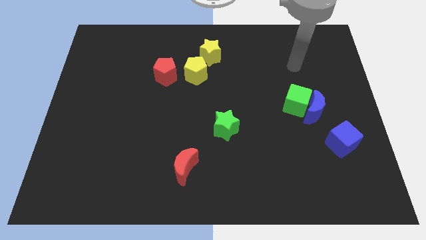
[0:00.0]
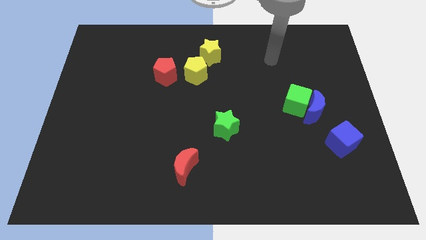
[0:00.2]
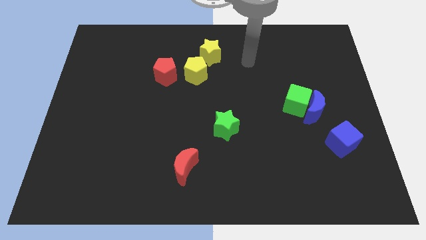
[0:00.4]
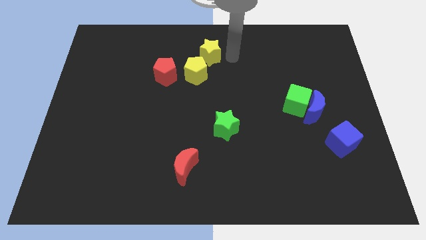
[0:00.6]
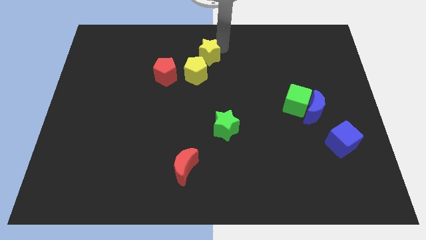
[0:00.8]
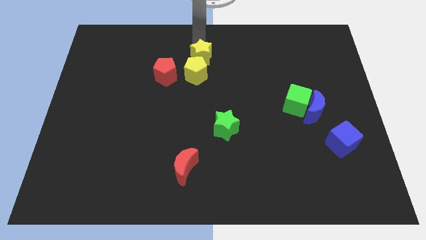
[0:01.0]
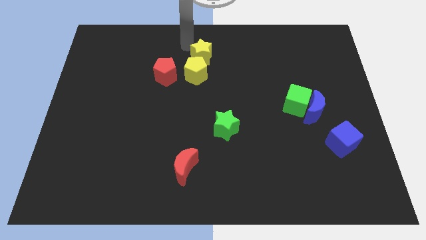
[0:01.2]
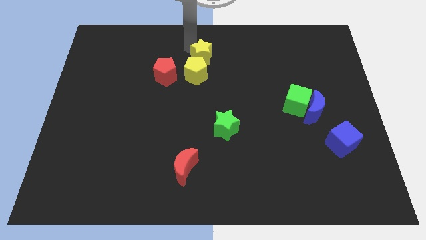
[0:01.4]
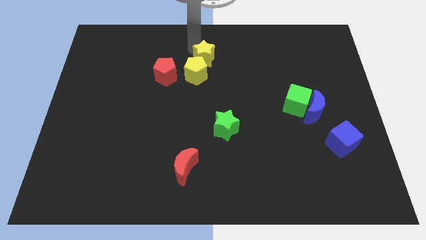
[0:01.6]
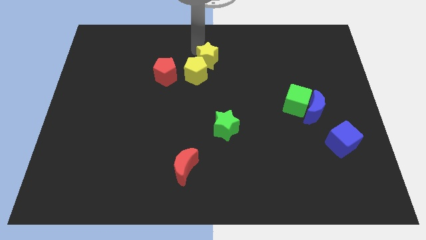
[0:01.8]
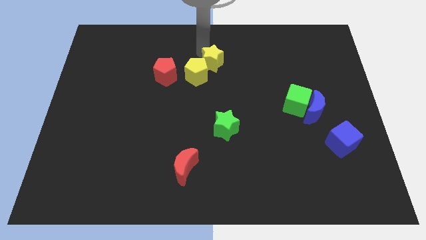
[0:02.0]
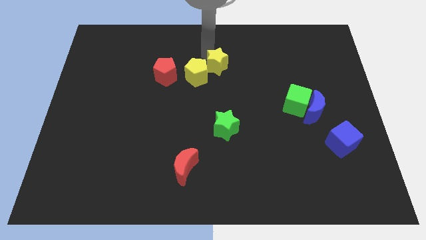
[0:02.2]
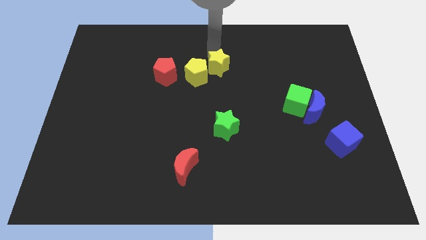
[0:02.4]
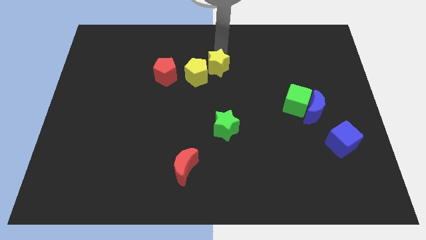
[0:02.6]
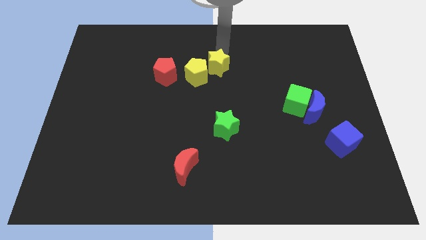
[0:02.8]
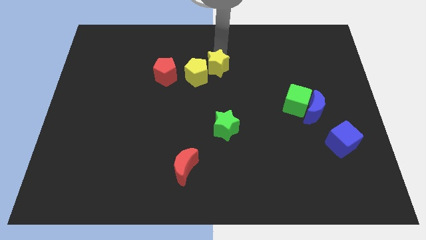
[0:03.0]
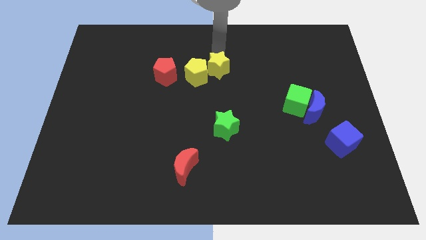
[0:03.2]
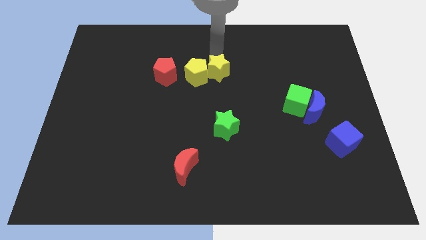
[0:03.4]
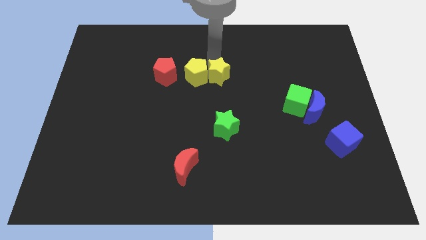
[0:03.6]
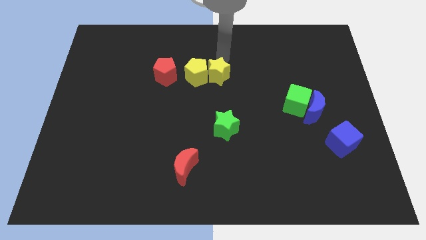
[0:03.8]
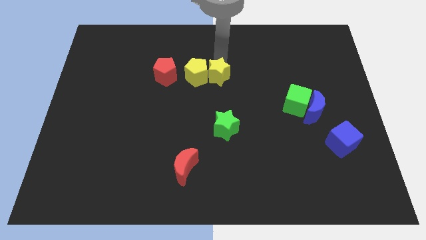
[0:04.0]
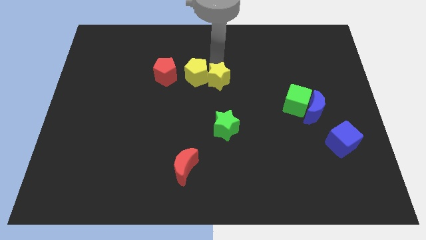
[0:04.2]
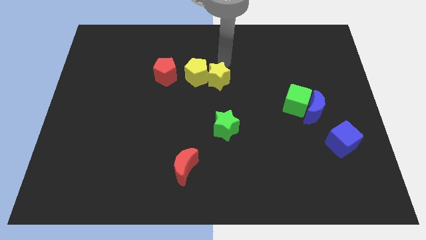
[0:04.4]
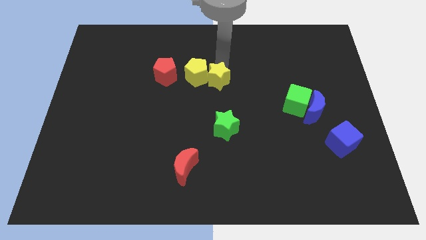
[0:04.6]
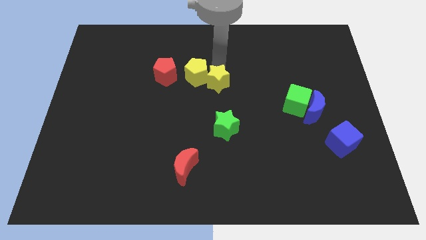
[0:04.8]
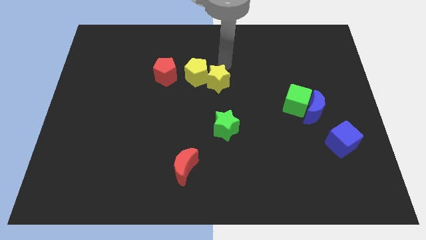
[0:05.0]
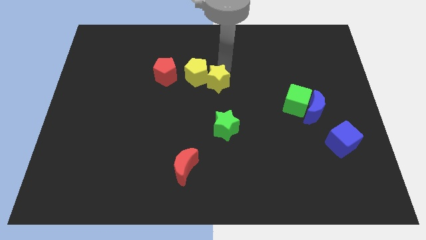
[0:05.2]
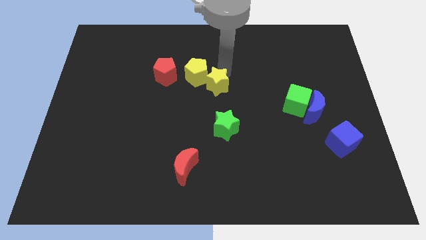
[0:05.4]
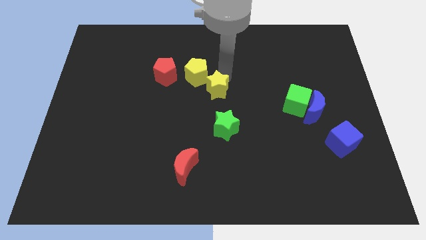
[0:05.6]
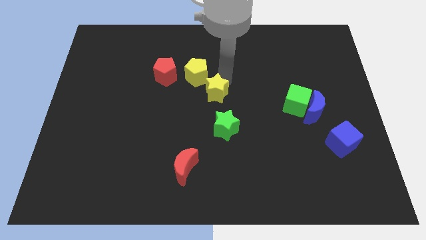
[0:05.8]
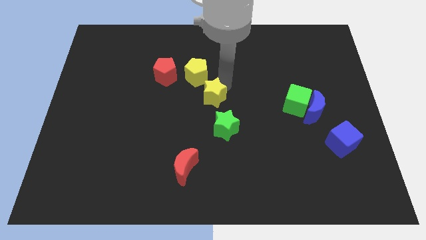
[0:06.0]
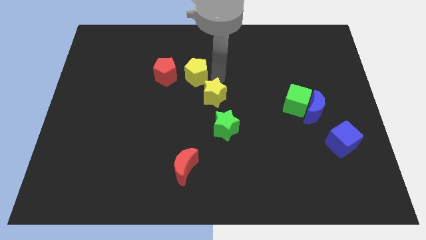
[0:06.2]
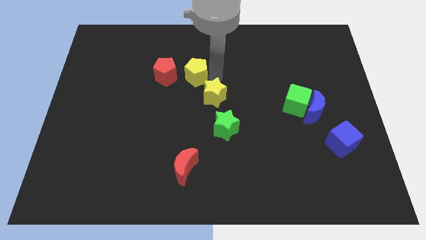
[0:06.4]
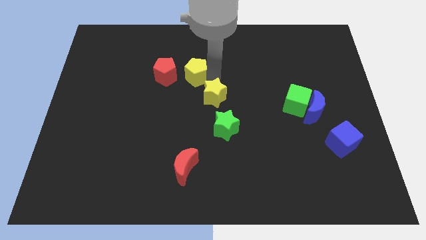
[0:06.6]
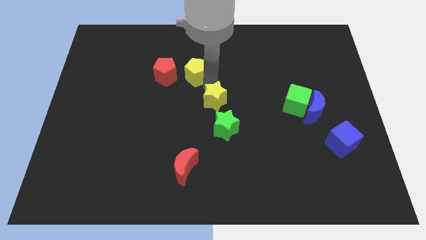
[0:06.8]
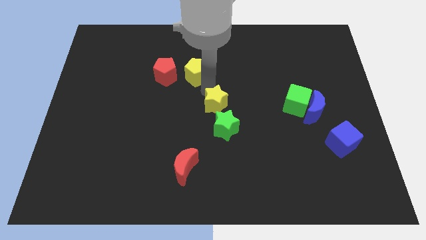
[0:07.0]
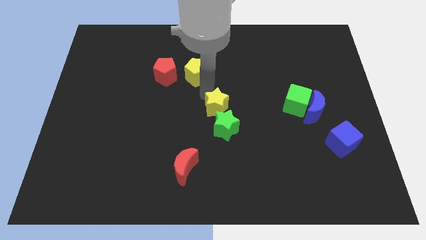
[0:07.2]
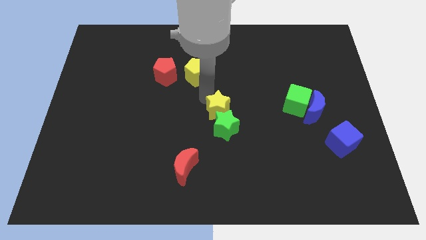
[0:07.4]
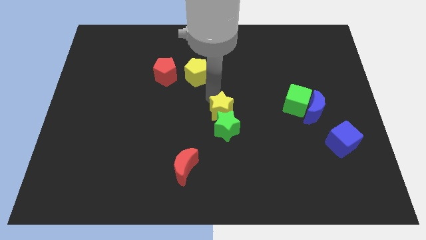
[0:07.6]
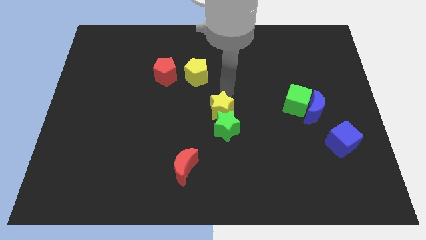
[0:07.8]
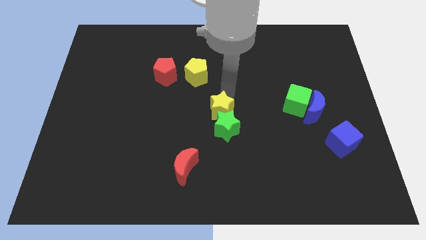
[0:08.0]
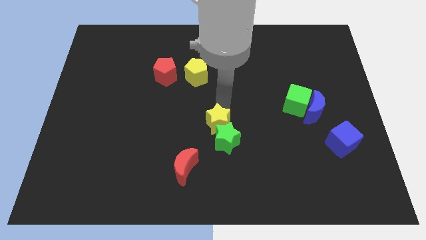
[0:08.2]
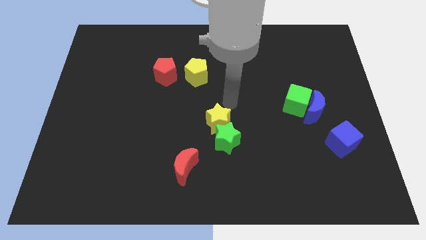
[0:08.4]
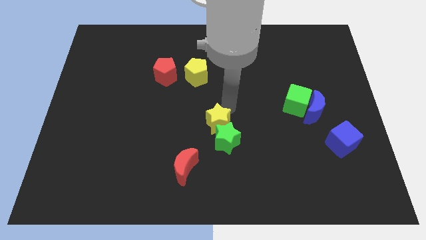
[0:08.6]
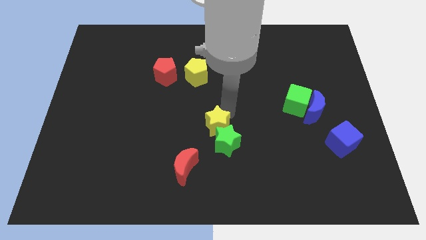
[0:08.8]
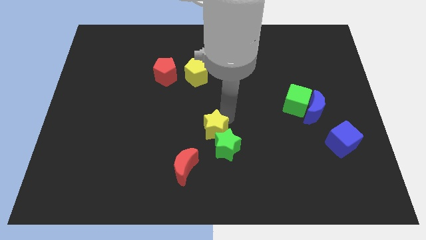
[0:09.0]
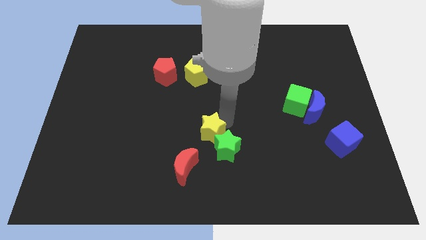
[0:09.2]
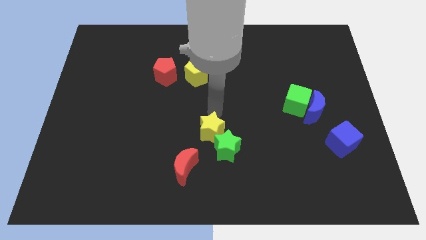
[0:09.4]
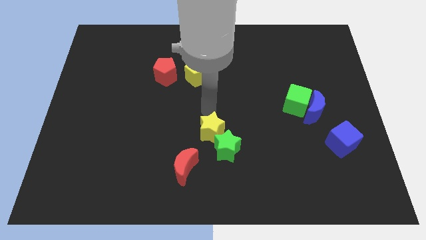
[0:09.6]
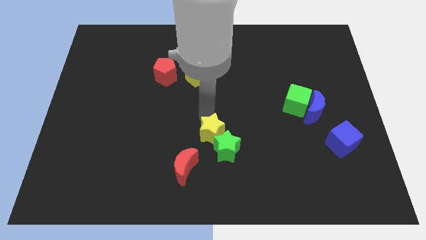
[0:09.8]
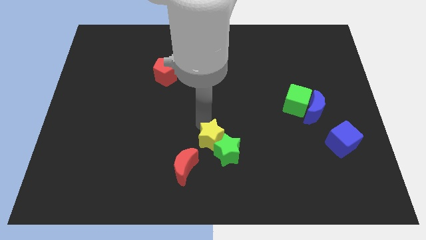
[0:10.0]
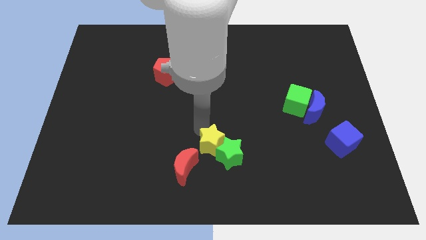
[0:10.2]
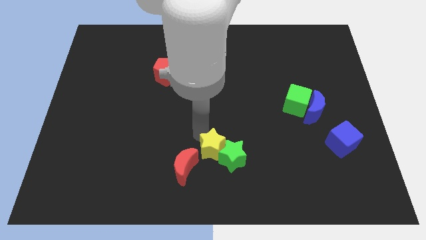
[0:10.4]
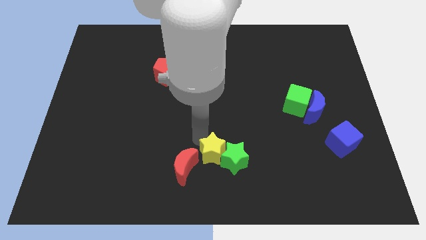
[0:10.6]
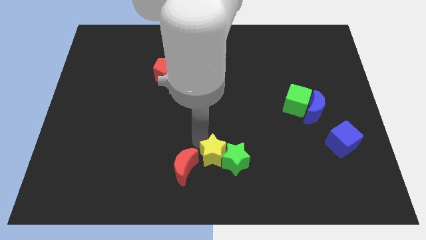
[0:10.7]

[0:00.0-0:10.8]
put the yellow star to the bottom

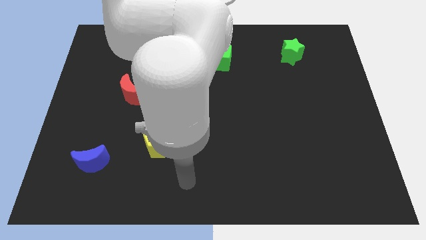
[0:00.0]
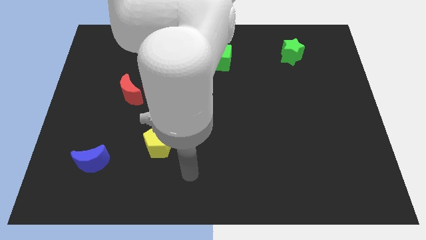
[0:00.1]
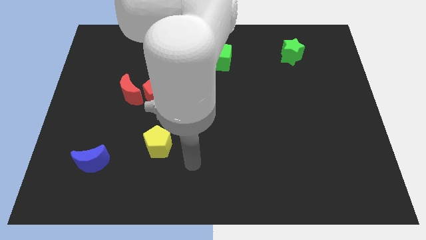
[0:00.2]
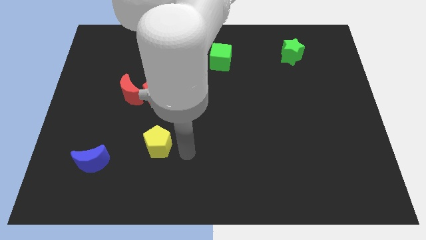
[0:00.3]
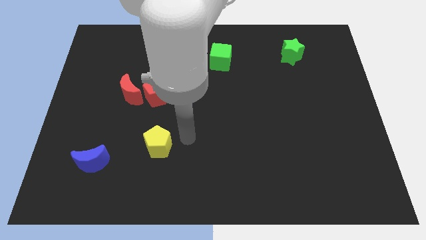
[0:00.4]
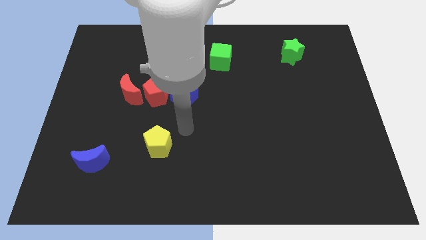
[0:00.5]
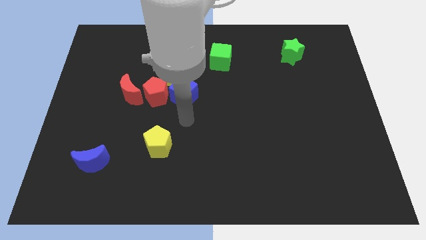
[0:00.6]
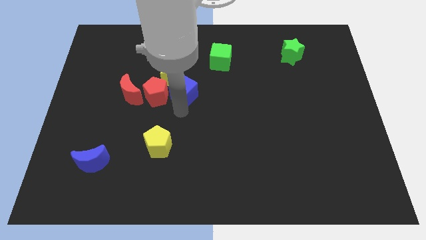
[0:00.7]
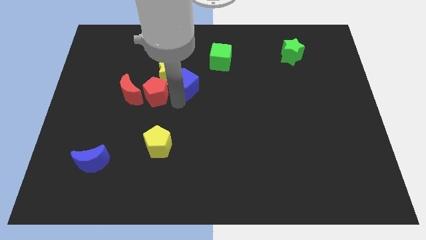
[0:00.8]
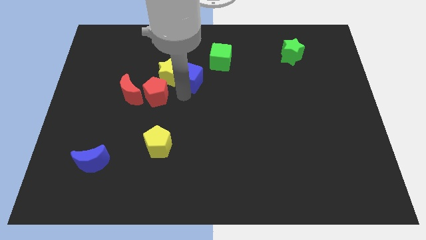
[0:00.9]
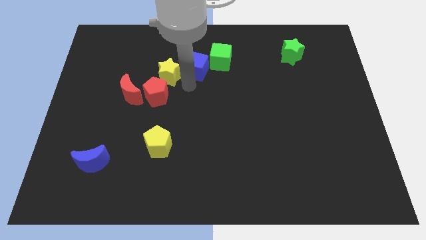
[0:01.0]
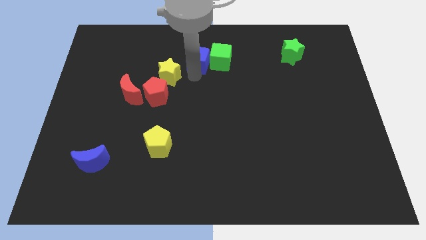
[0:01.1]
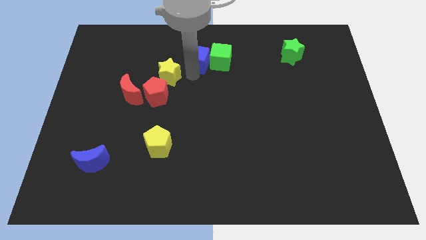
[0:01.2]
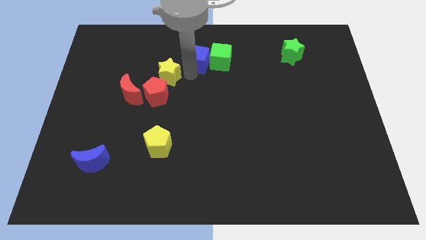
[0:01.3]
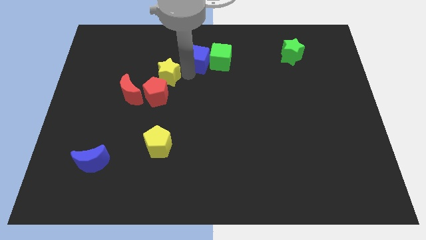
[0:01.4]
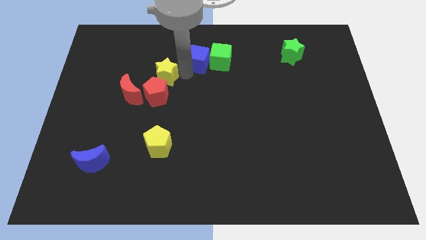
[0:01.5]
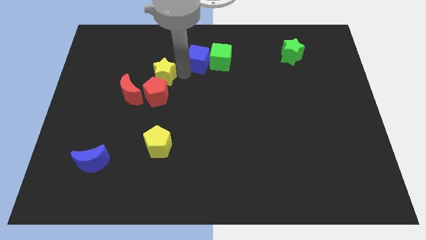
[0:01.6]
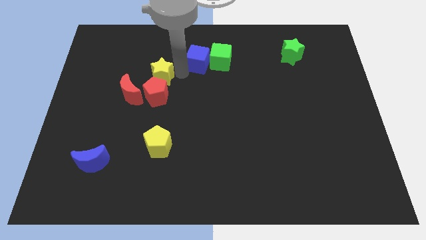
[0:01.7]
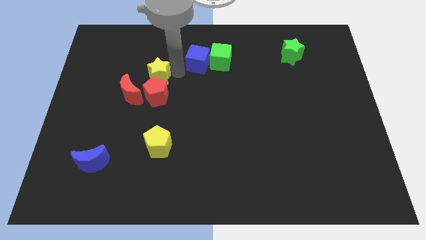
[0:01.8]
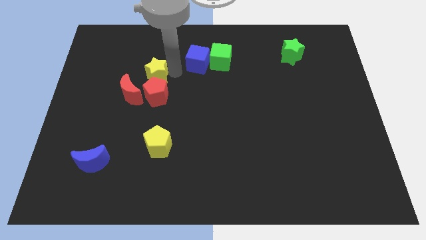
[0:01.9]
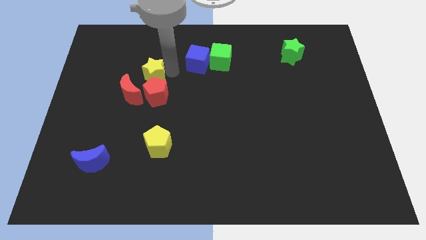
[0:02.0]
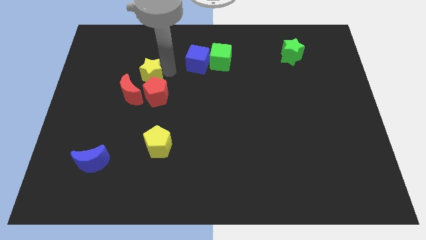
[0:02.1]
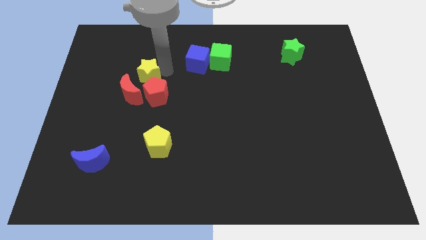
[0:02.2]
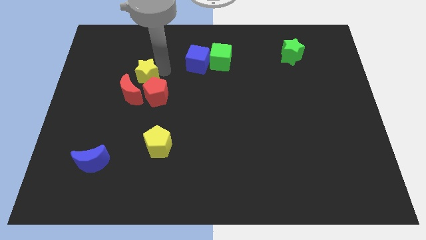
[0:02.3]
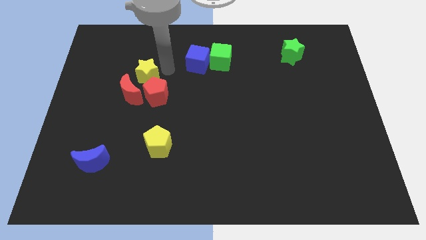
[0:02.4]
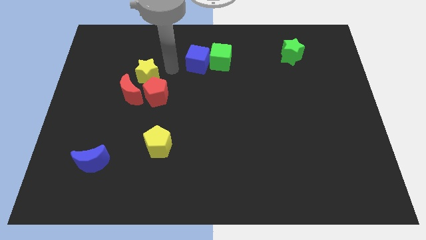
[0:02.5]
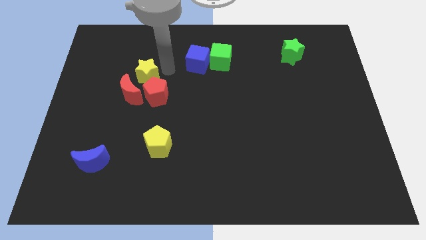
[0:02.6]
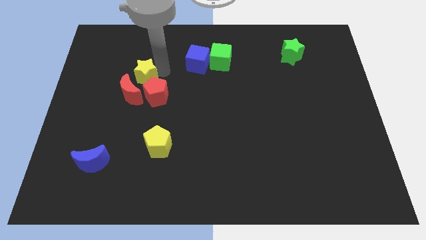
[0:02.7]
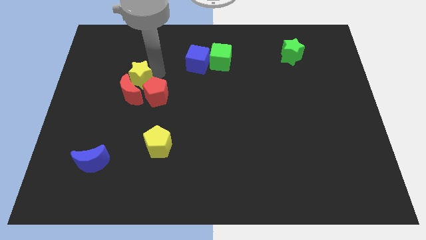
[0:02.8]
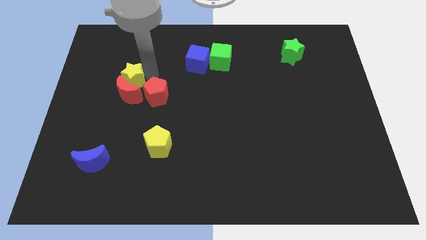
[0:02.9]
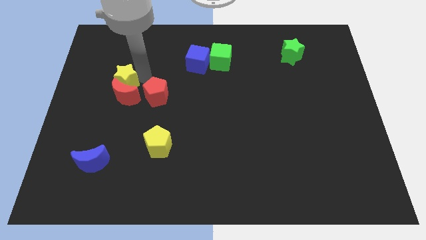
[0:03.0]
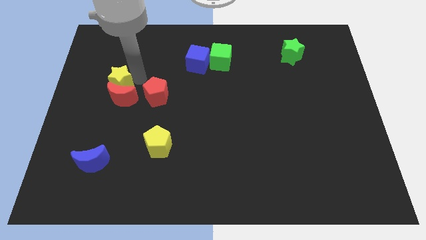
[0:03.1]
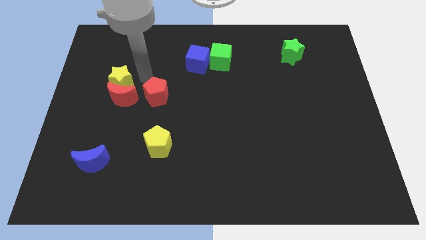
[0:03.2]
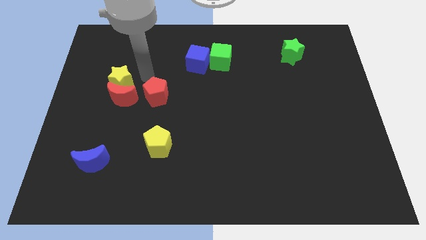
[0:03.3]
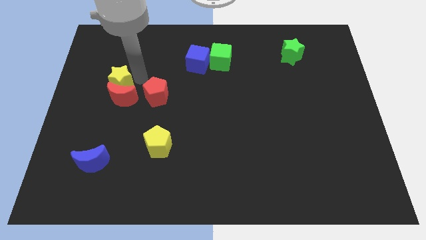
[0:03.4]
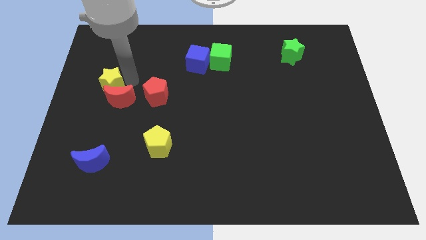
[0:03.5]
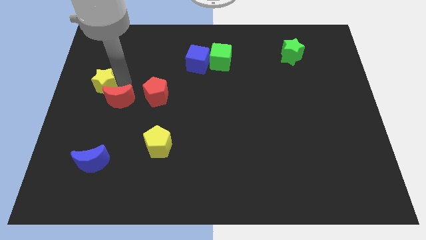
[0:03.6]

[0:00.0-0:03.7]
push the yellow star to the left side
